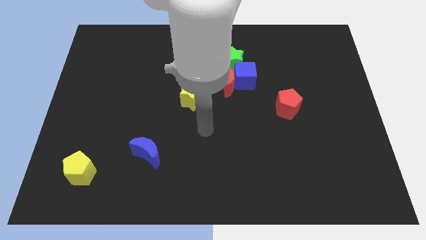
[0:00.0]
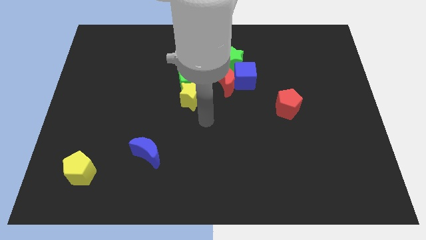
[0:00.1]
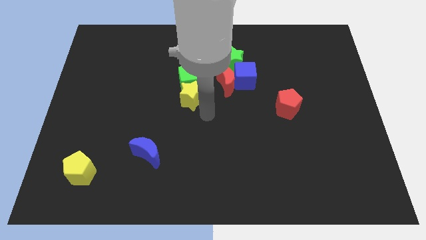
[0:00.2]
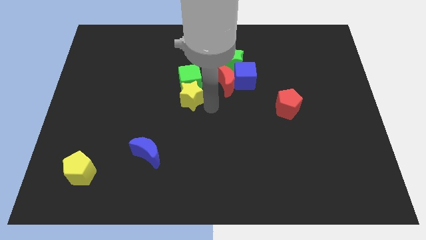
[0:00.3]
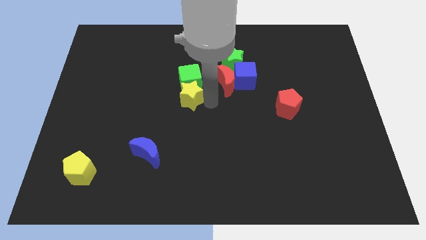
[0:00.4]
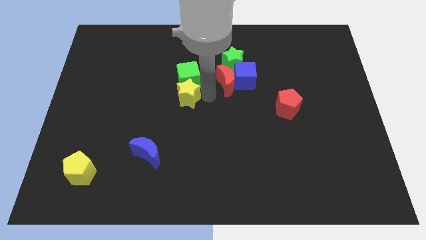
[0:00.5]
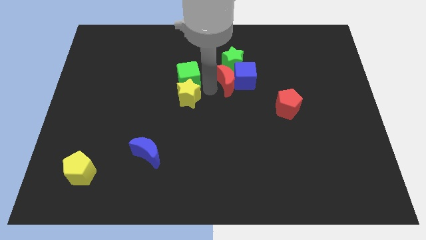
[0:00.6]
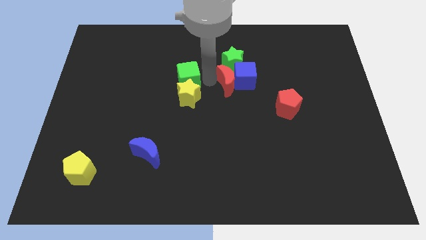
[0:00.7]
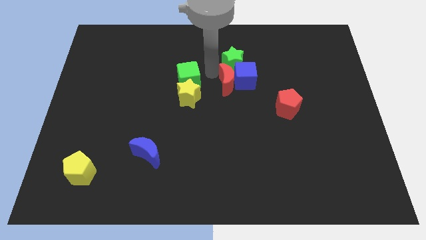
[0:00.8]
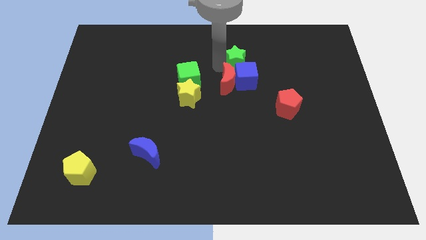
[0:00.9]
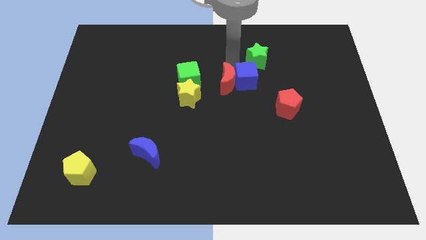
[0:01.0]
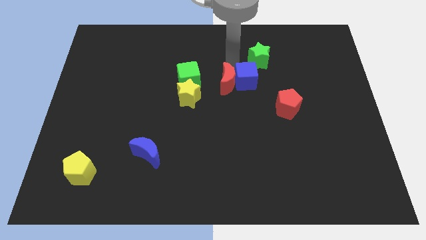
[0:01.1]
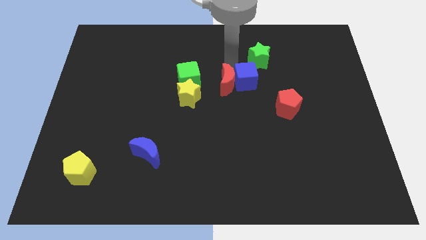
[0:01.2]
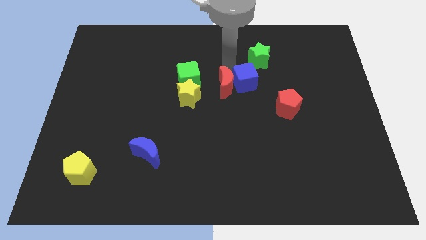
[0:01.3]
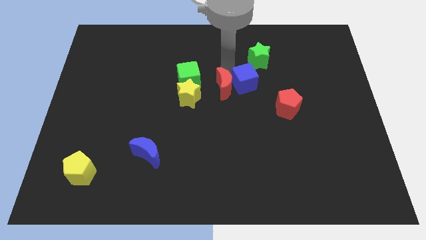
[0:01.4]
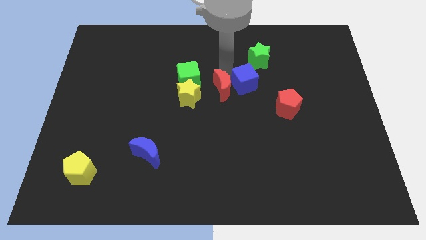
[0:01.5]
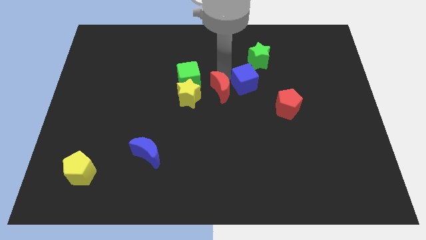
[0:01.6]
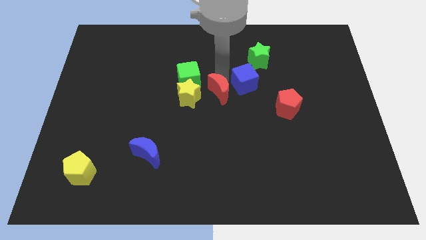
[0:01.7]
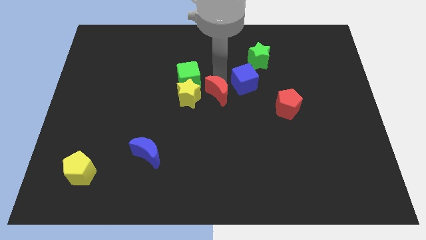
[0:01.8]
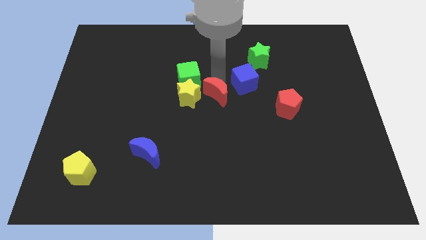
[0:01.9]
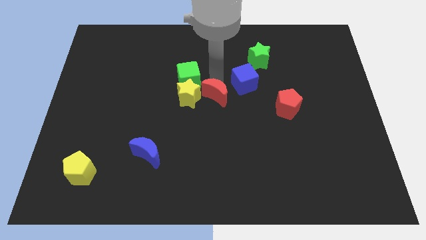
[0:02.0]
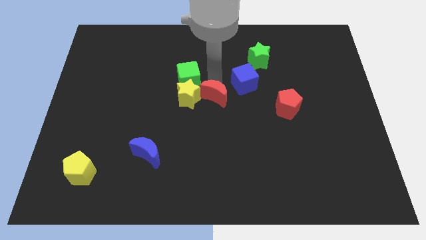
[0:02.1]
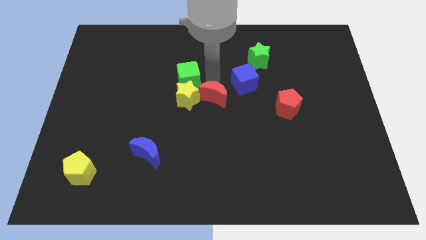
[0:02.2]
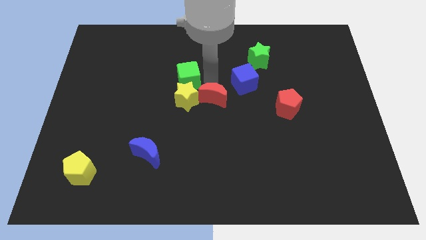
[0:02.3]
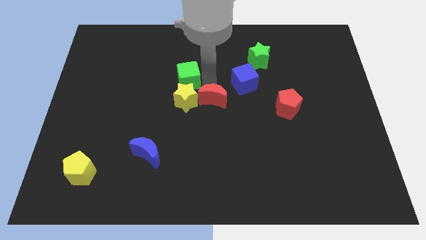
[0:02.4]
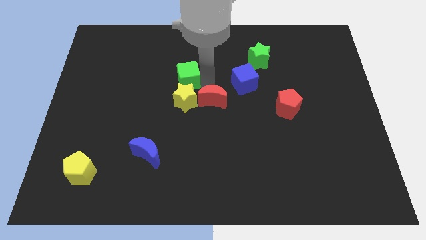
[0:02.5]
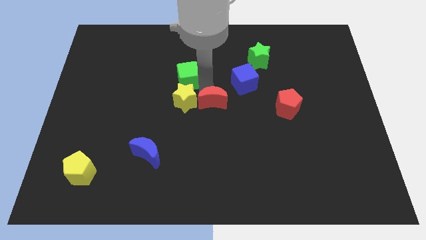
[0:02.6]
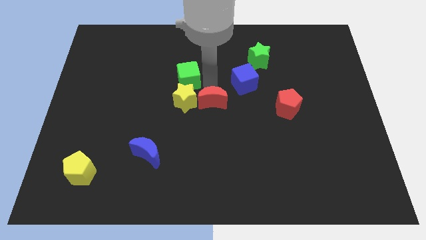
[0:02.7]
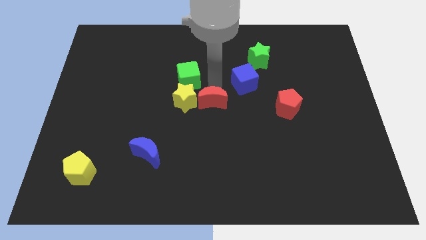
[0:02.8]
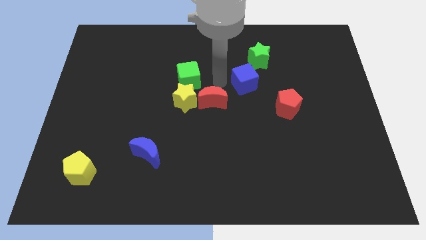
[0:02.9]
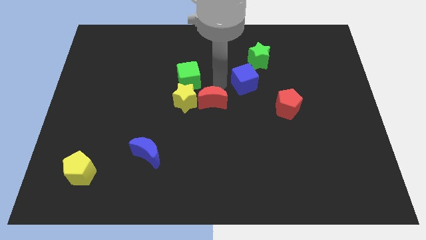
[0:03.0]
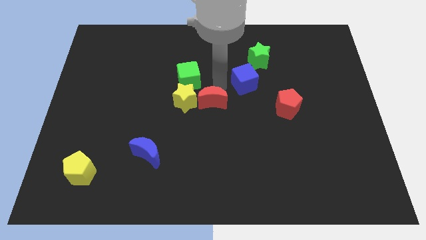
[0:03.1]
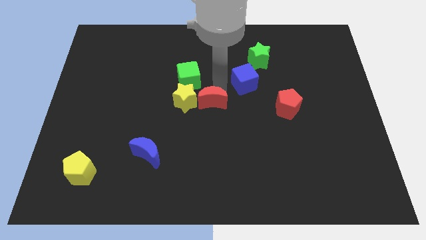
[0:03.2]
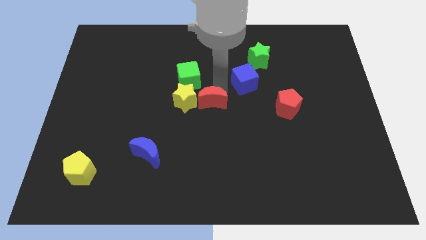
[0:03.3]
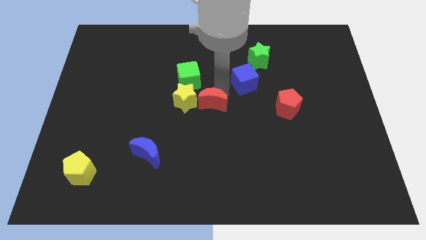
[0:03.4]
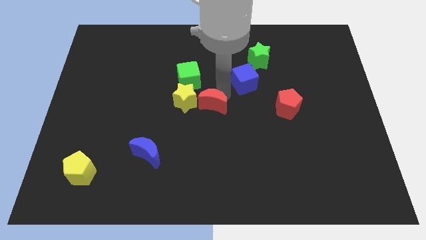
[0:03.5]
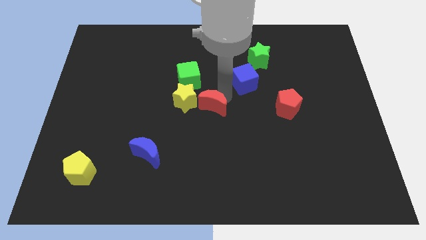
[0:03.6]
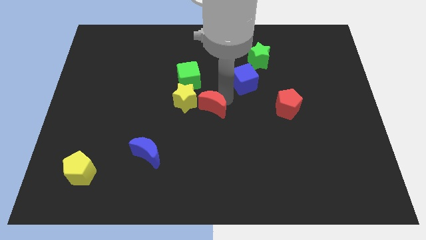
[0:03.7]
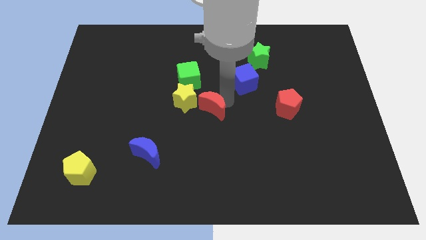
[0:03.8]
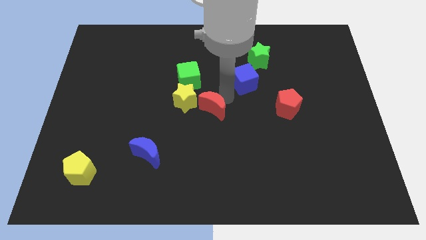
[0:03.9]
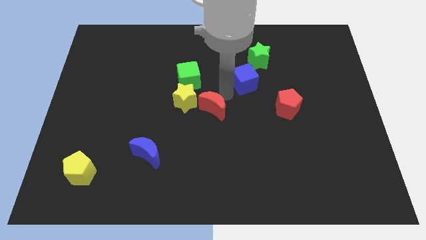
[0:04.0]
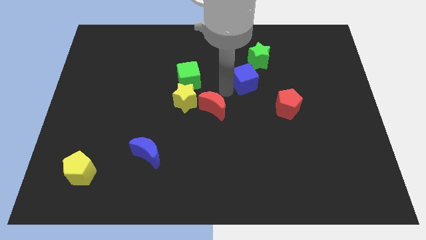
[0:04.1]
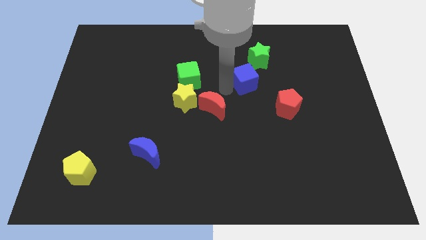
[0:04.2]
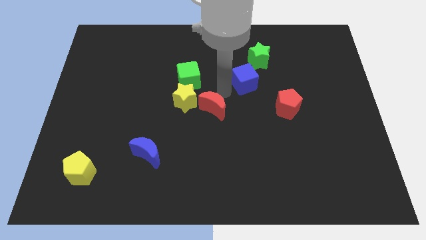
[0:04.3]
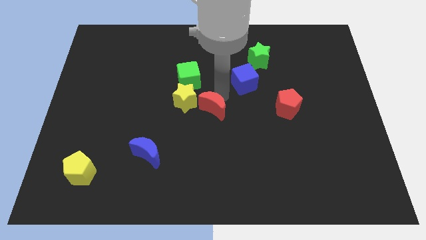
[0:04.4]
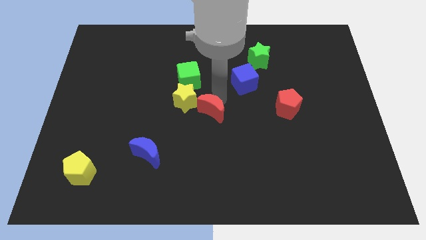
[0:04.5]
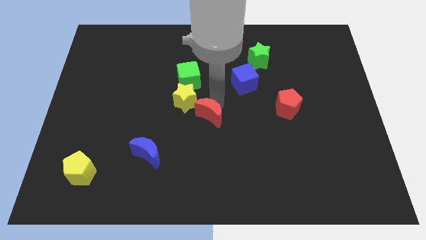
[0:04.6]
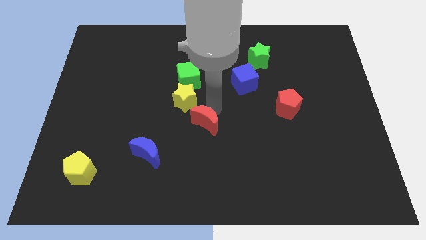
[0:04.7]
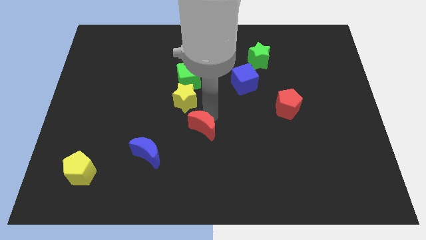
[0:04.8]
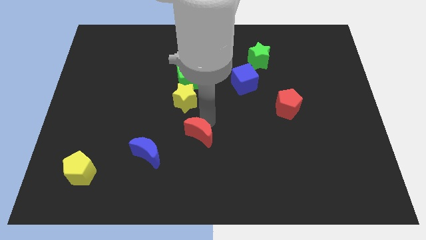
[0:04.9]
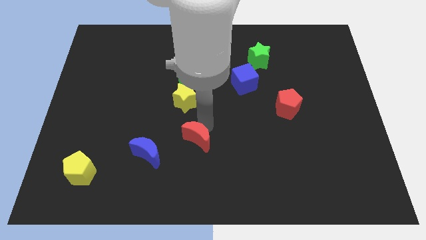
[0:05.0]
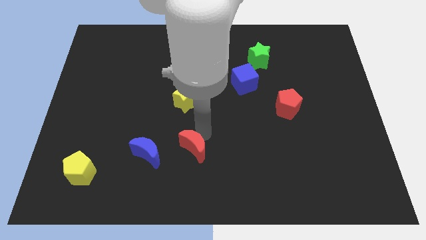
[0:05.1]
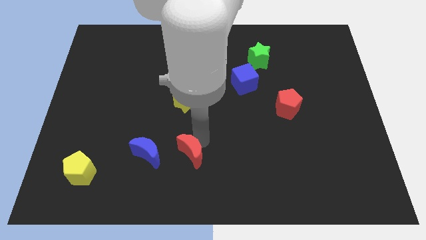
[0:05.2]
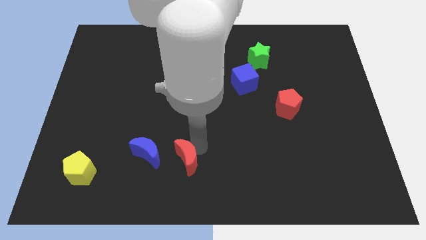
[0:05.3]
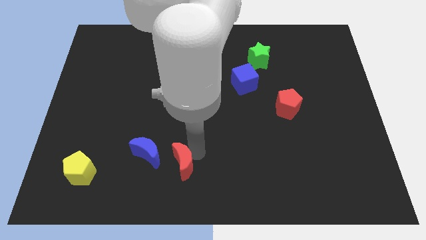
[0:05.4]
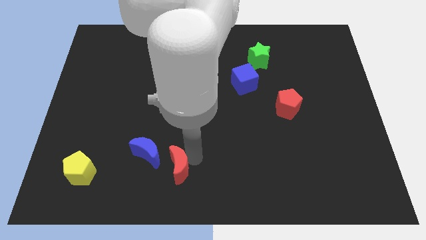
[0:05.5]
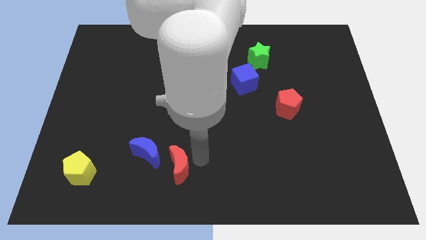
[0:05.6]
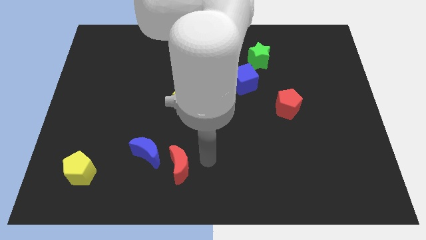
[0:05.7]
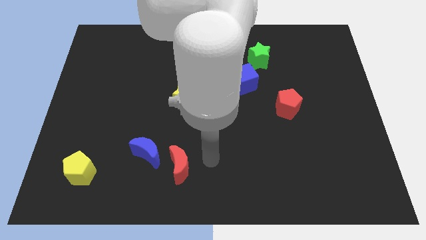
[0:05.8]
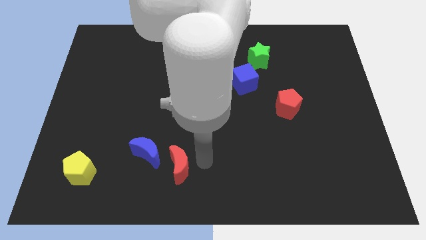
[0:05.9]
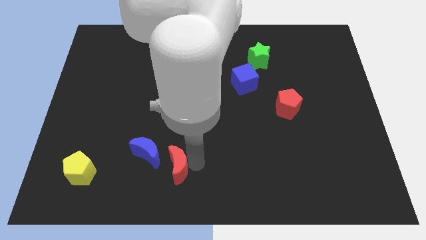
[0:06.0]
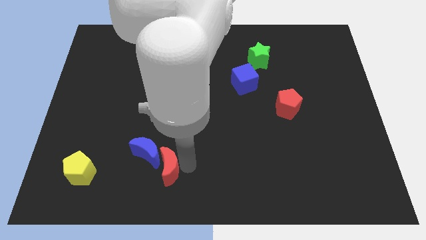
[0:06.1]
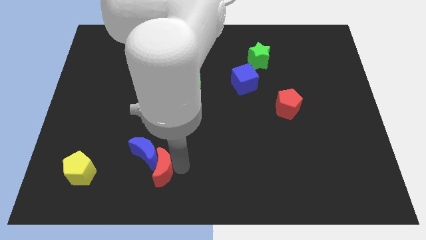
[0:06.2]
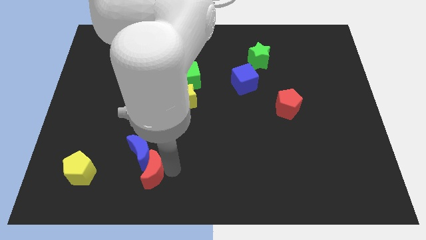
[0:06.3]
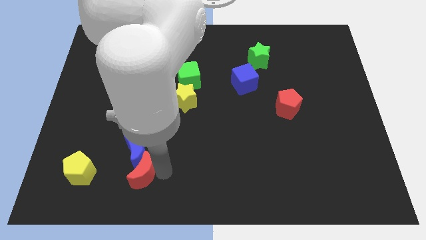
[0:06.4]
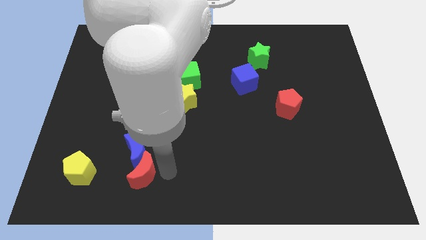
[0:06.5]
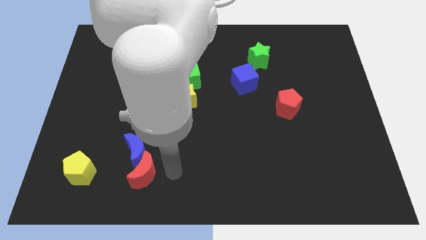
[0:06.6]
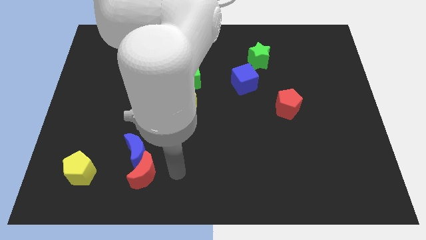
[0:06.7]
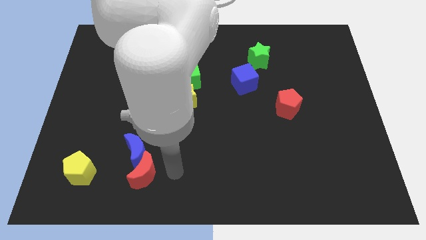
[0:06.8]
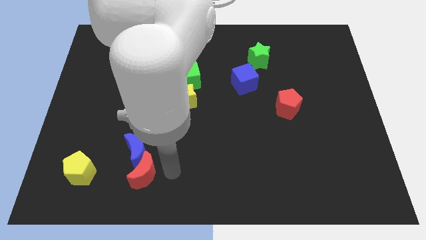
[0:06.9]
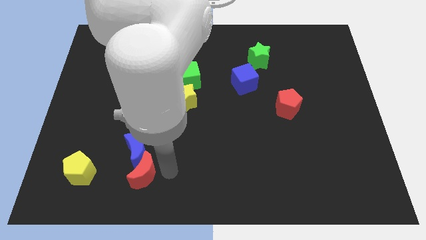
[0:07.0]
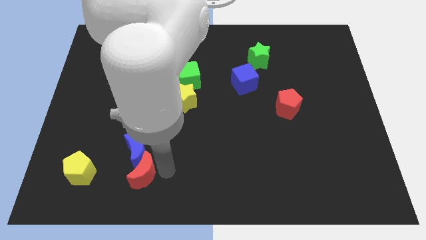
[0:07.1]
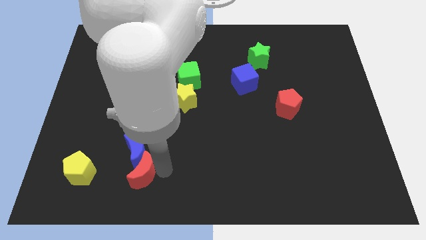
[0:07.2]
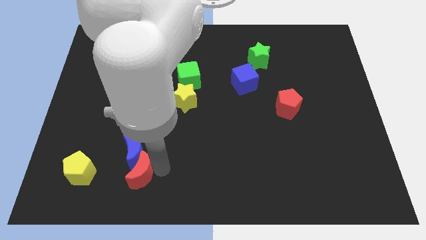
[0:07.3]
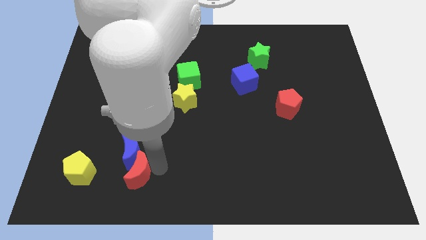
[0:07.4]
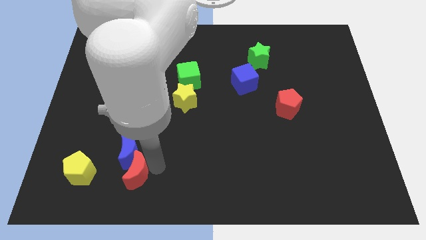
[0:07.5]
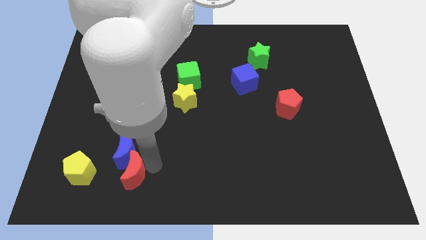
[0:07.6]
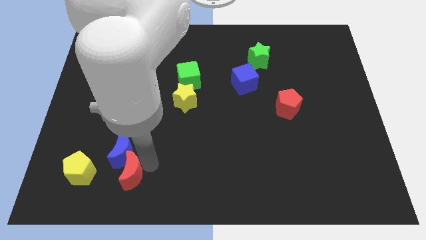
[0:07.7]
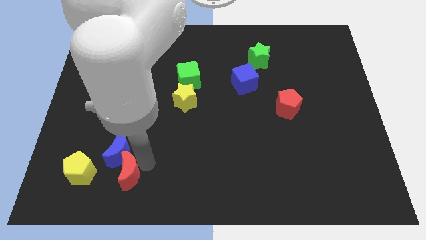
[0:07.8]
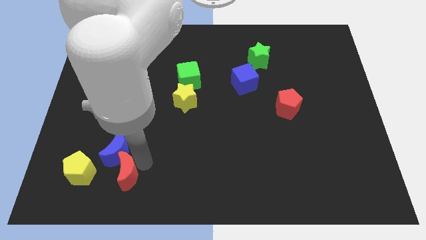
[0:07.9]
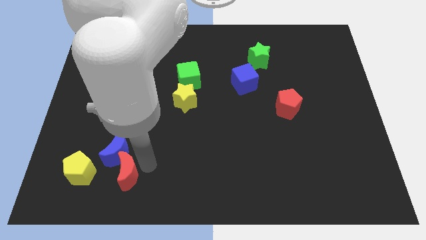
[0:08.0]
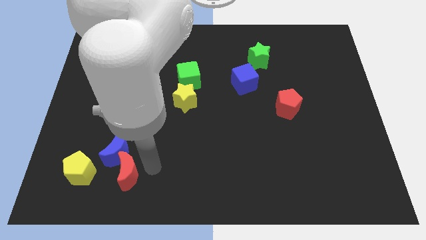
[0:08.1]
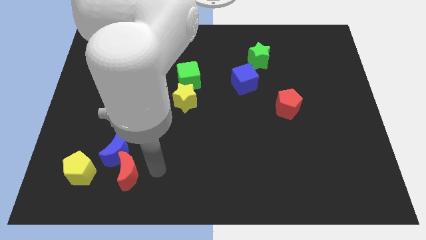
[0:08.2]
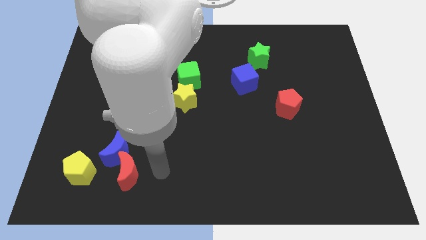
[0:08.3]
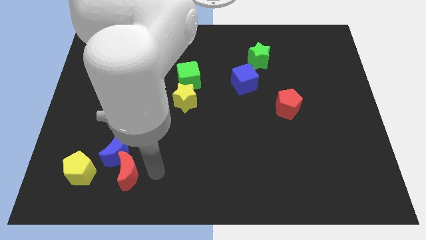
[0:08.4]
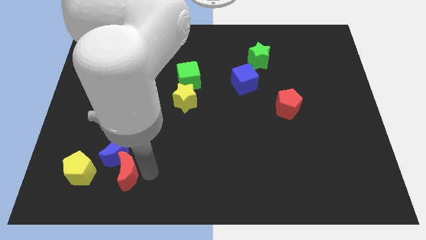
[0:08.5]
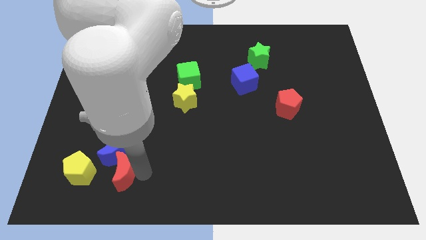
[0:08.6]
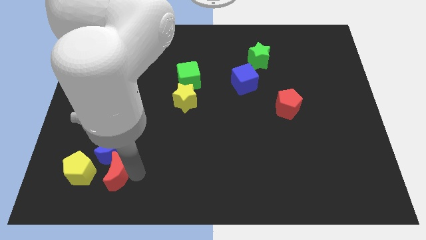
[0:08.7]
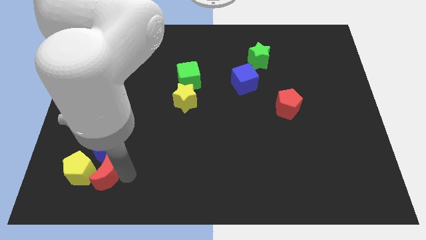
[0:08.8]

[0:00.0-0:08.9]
put the red moon next to the yellow pentagon
